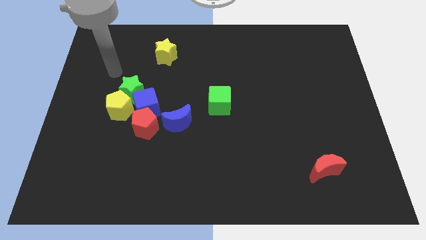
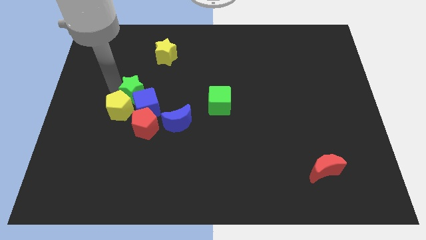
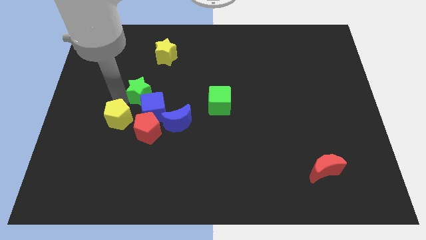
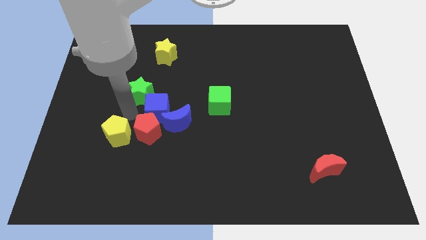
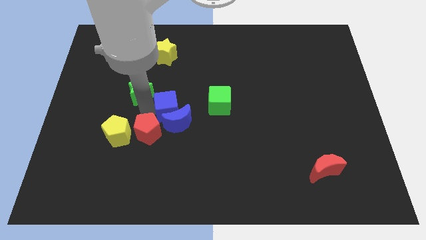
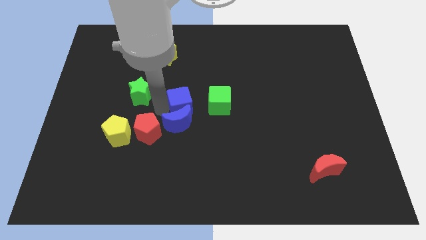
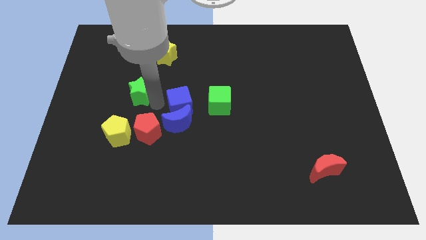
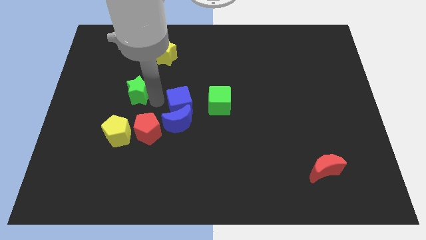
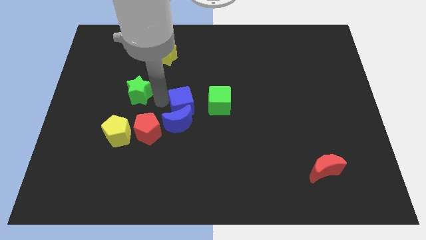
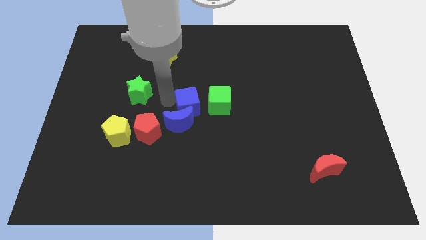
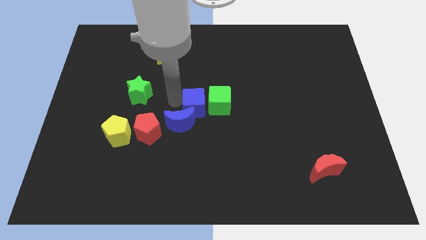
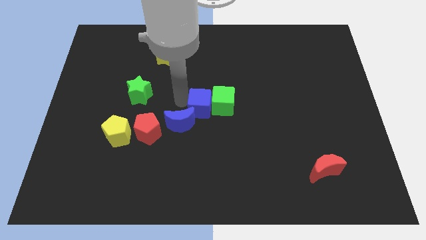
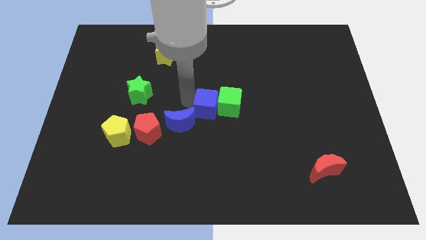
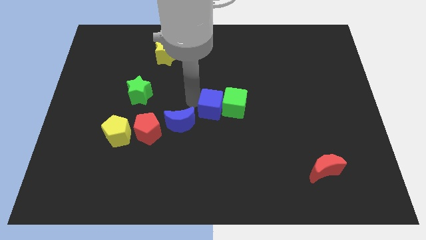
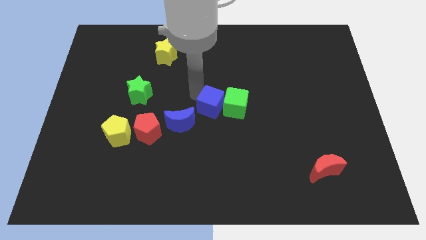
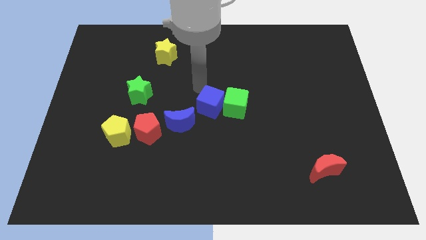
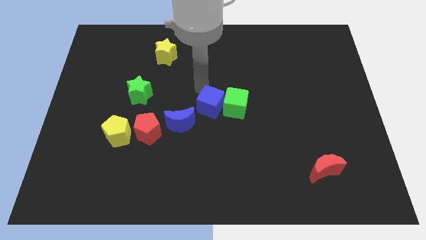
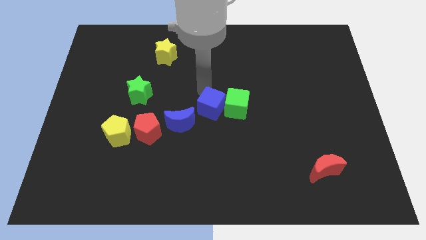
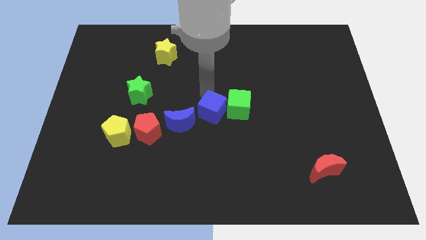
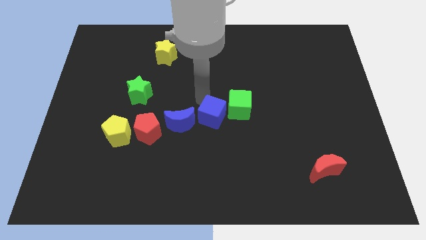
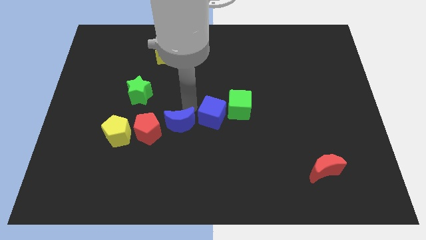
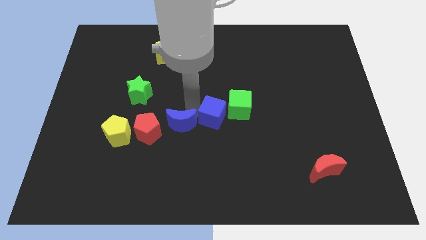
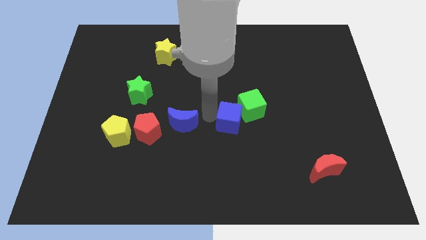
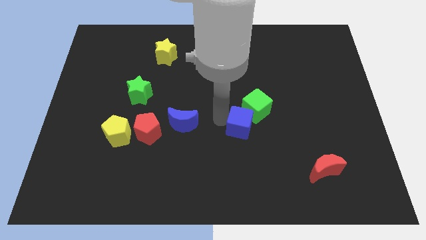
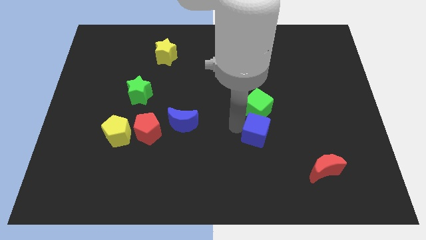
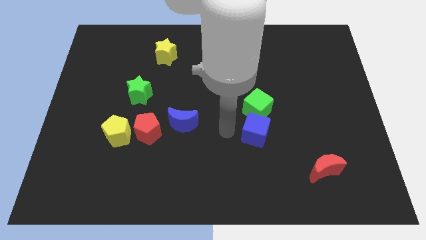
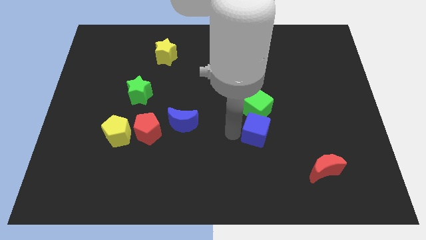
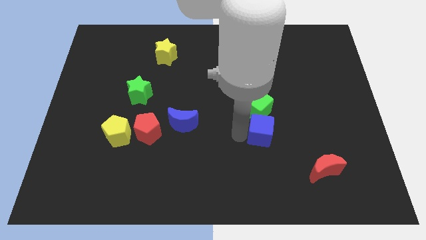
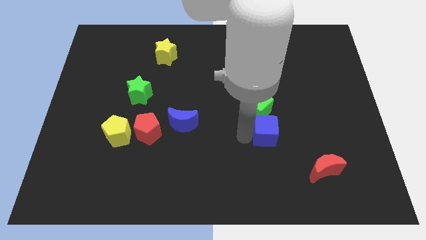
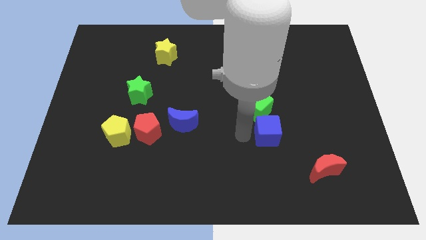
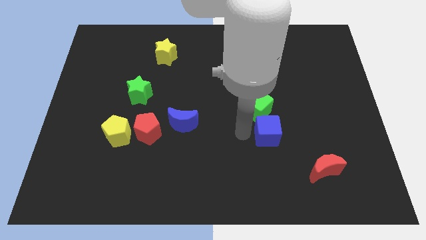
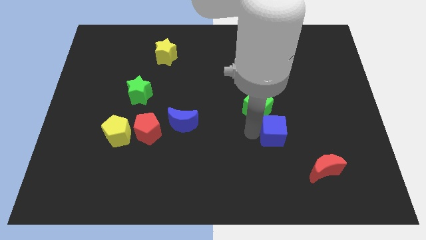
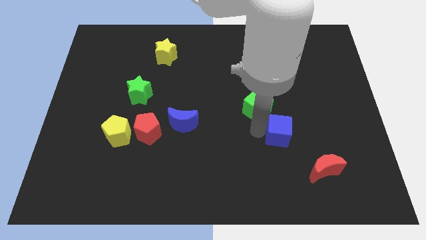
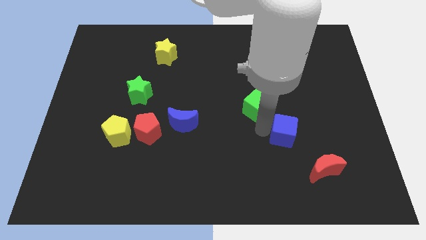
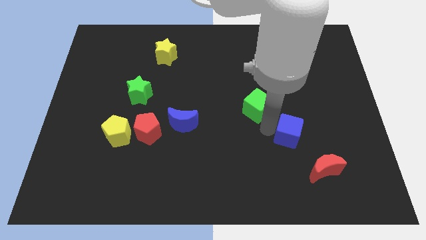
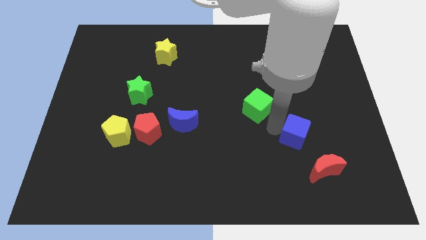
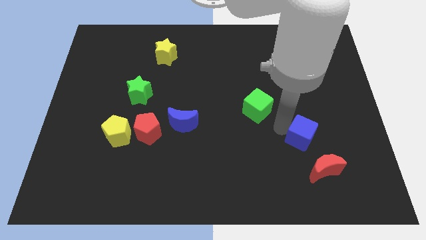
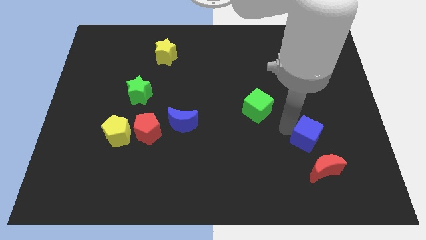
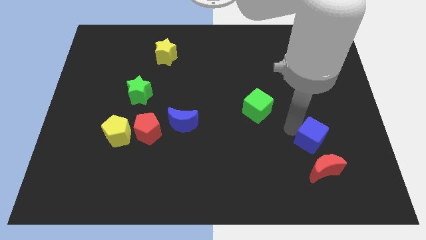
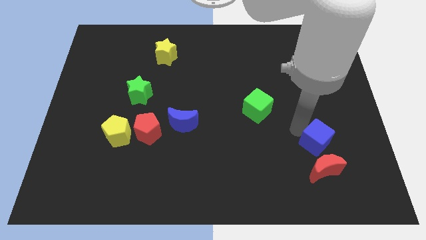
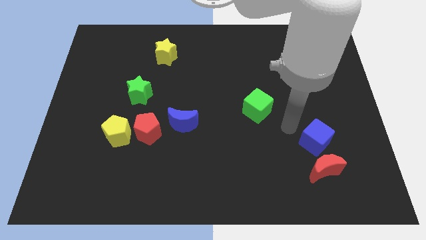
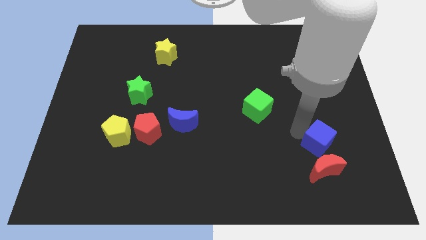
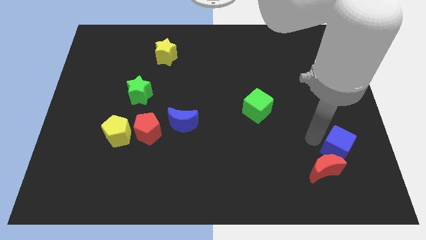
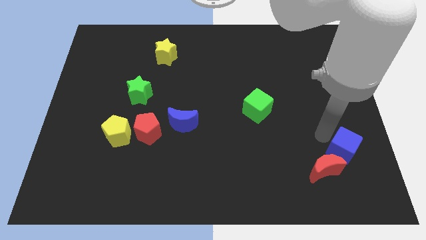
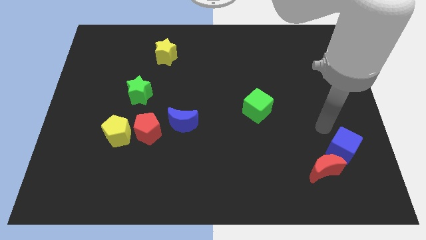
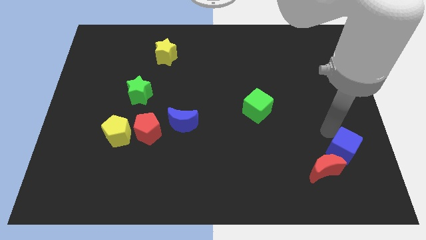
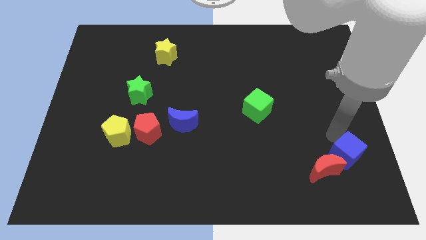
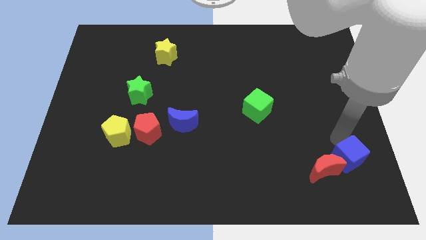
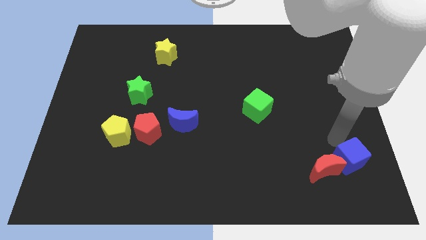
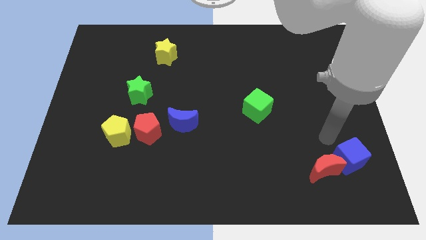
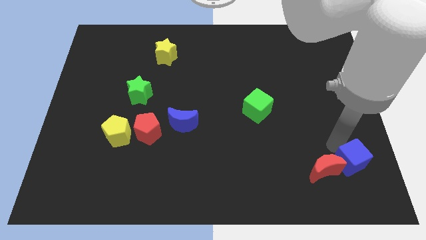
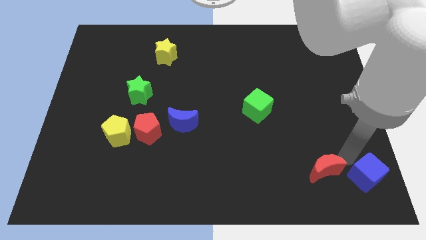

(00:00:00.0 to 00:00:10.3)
put the blue cube to the bottom right of the board

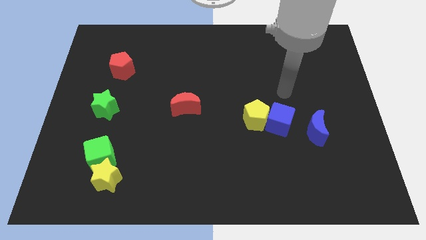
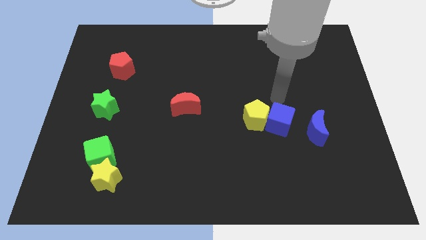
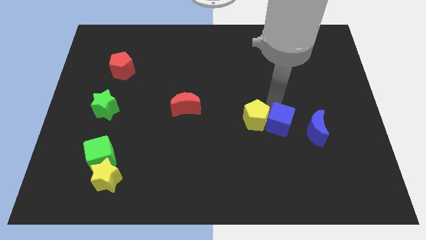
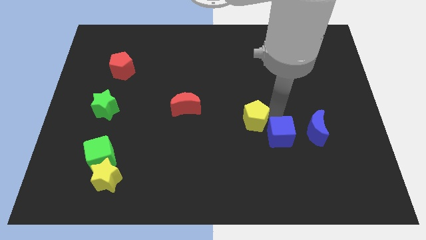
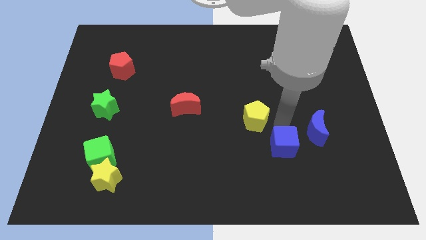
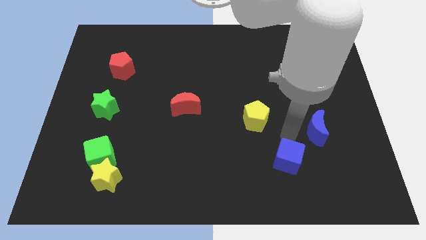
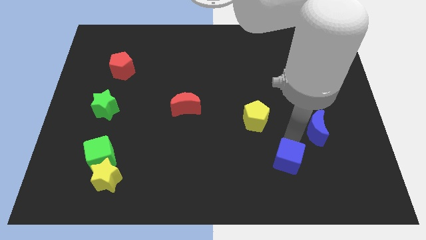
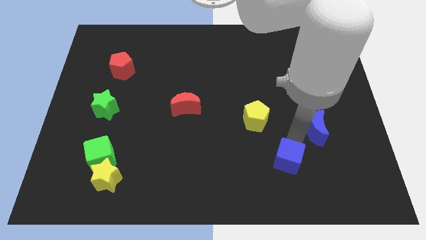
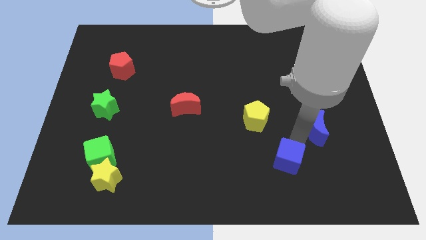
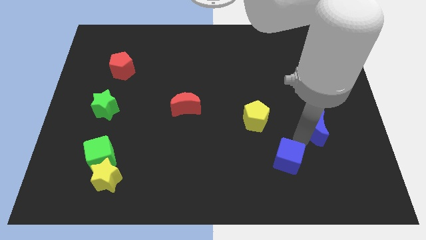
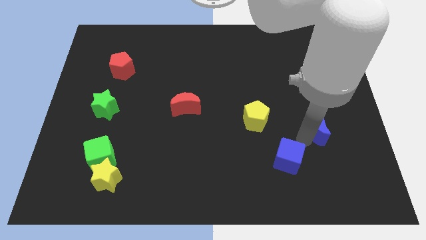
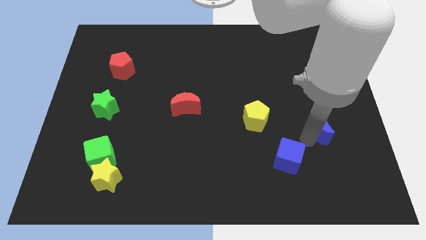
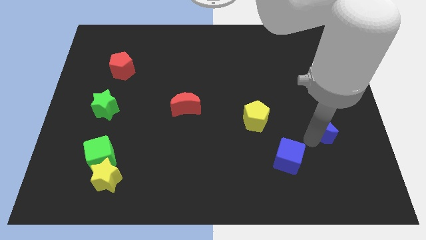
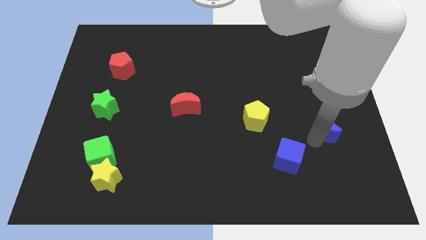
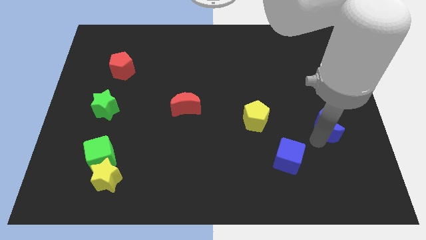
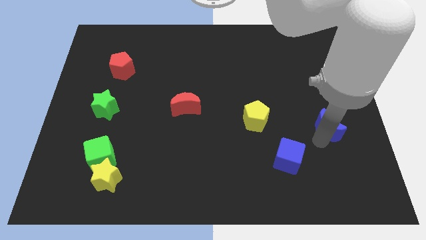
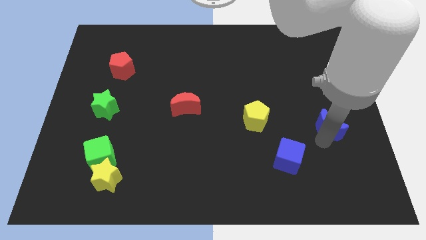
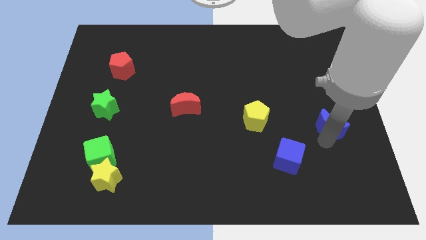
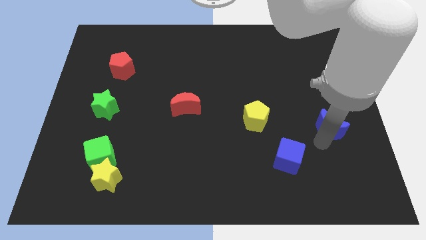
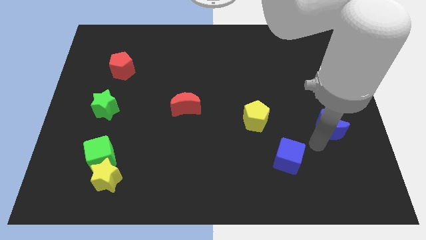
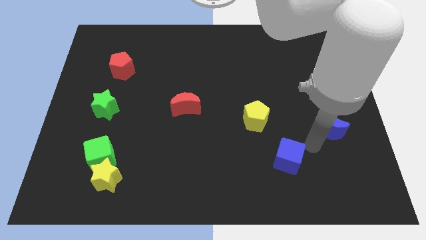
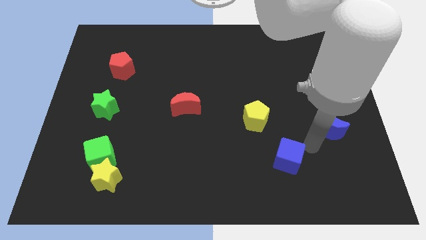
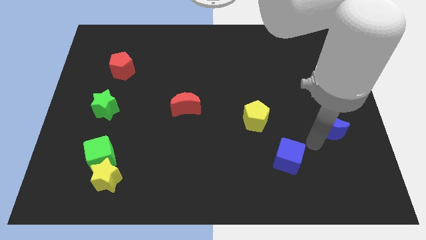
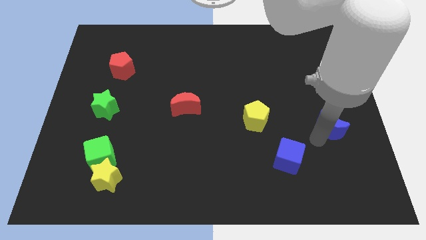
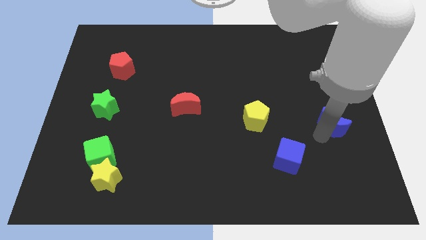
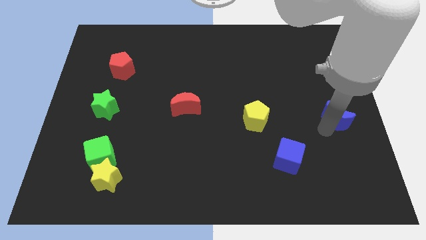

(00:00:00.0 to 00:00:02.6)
slide the blue moon to the center right
